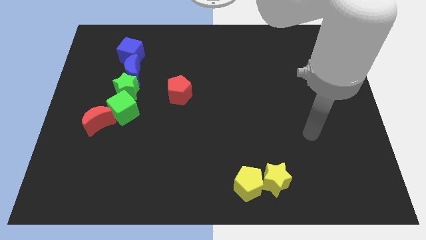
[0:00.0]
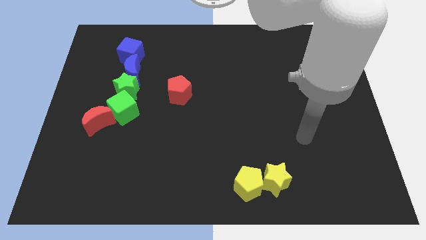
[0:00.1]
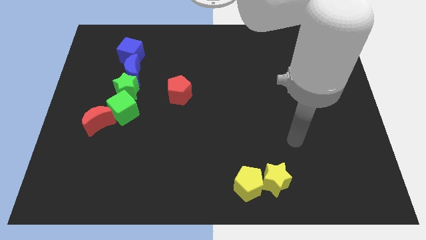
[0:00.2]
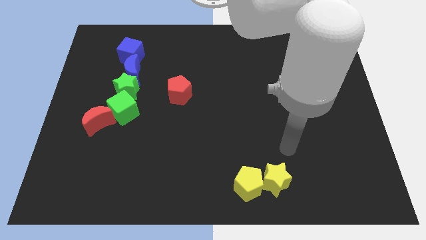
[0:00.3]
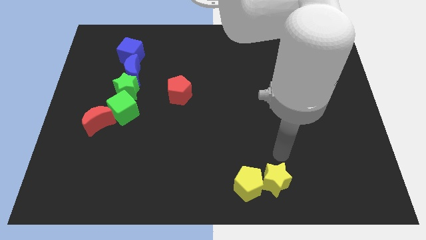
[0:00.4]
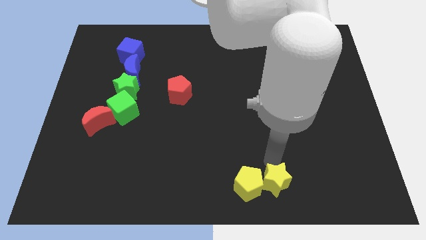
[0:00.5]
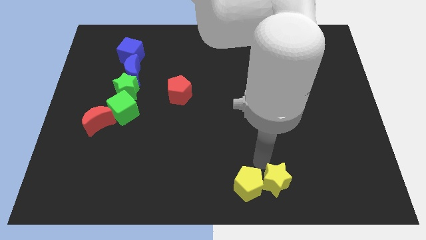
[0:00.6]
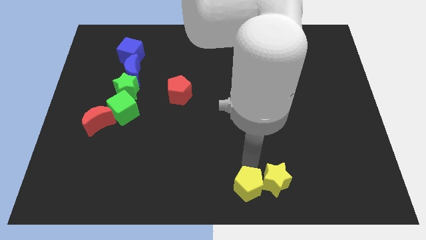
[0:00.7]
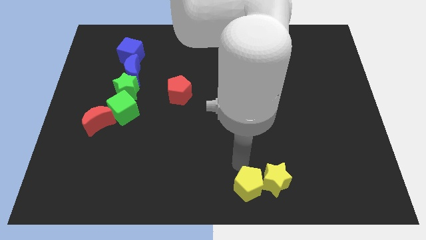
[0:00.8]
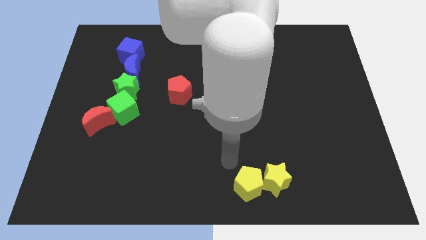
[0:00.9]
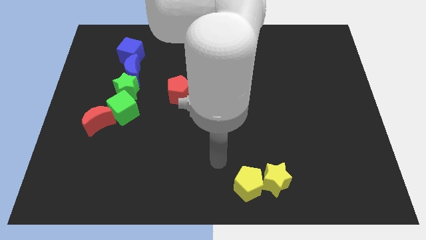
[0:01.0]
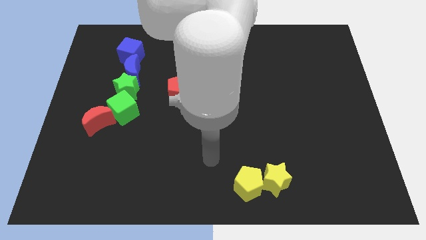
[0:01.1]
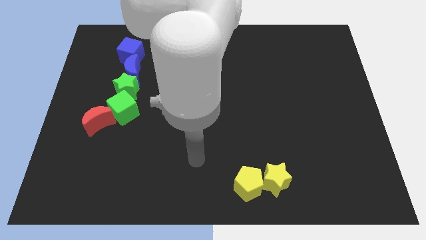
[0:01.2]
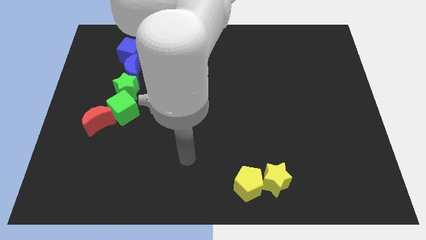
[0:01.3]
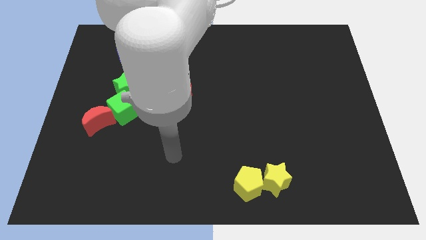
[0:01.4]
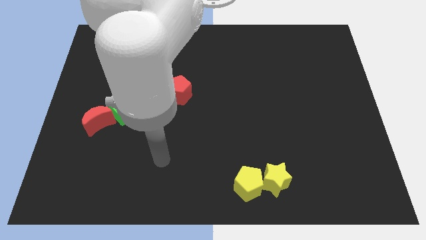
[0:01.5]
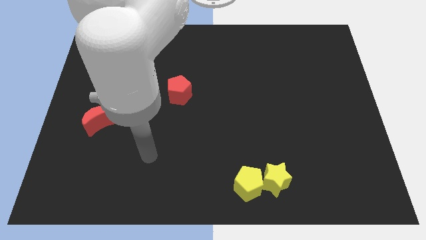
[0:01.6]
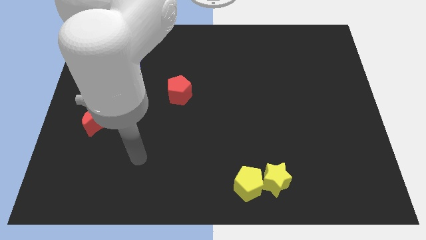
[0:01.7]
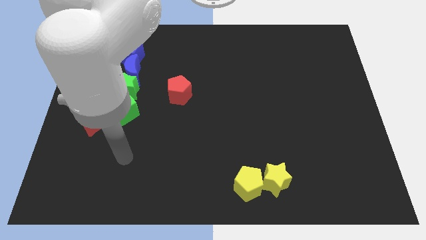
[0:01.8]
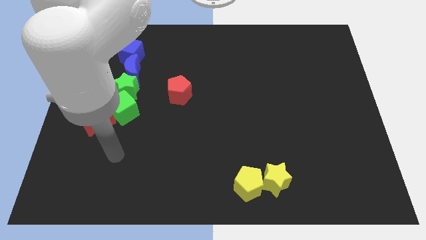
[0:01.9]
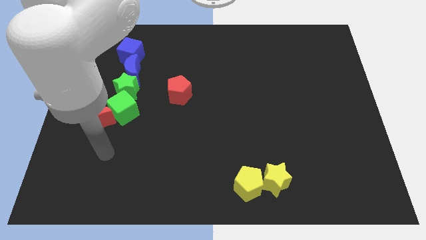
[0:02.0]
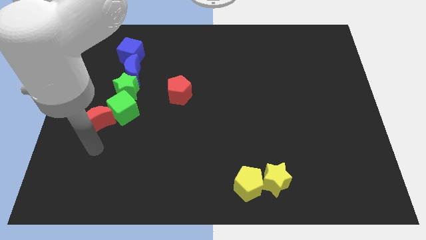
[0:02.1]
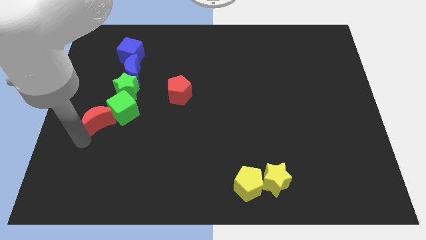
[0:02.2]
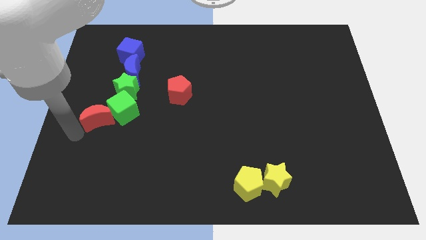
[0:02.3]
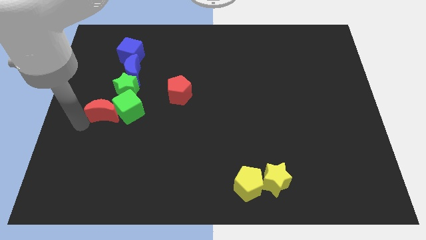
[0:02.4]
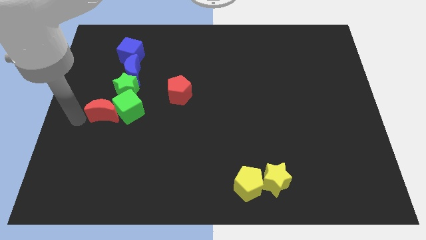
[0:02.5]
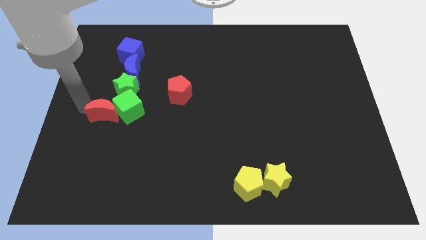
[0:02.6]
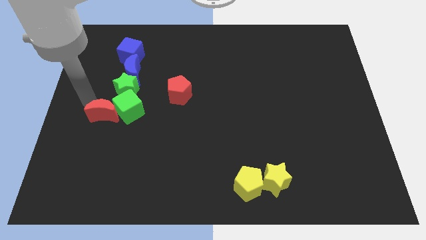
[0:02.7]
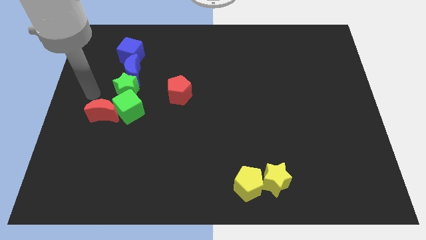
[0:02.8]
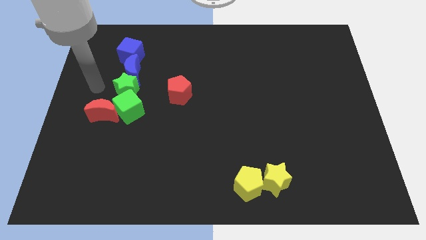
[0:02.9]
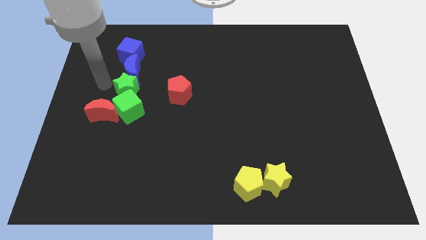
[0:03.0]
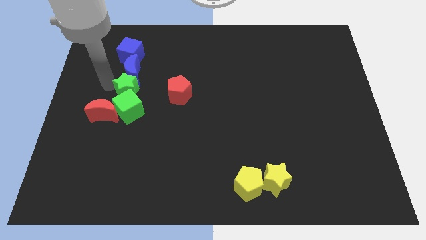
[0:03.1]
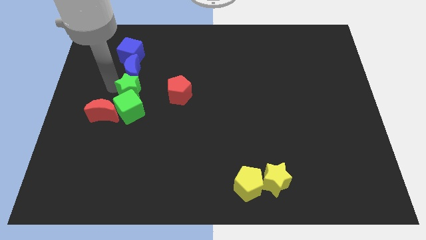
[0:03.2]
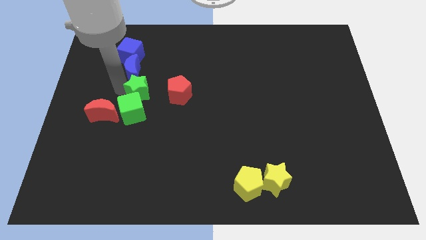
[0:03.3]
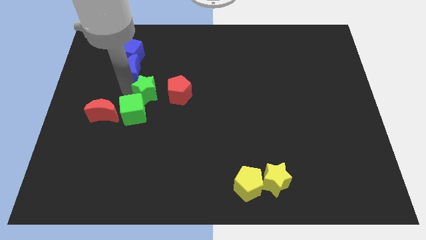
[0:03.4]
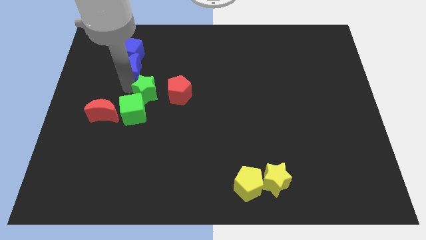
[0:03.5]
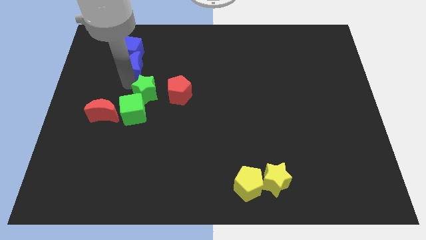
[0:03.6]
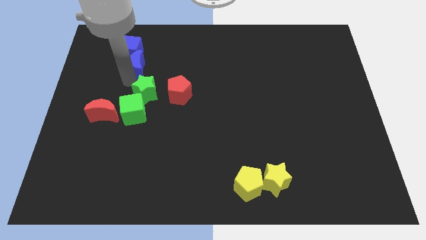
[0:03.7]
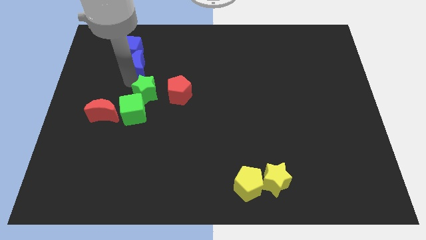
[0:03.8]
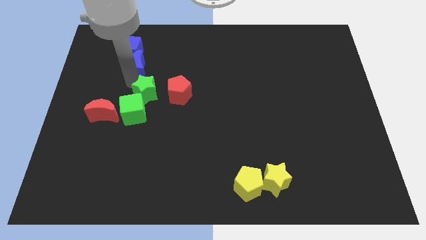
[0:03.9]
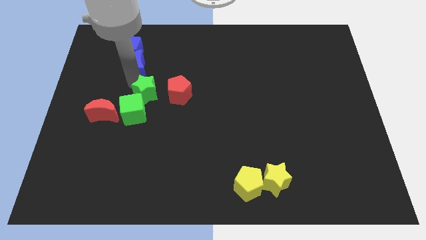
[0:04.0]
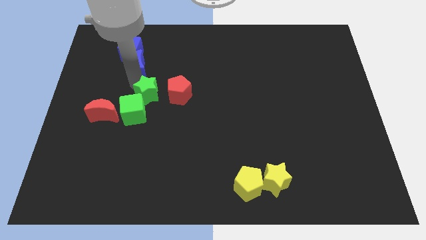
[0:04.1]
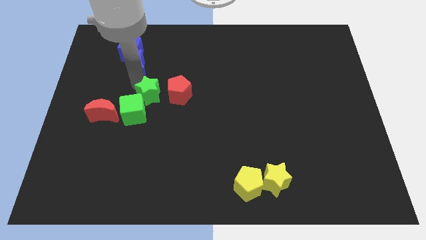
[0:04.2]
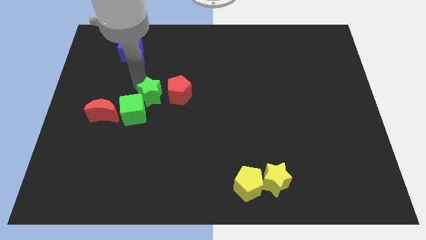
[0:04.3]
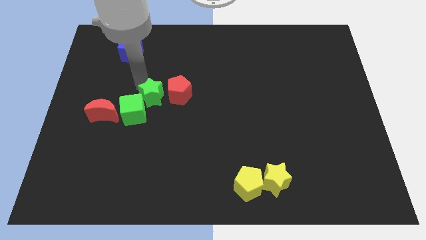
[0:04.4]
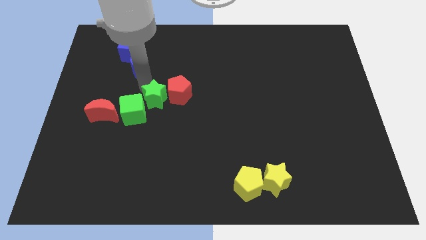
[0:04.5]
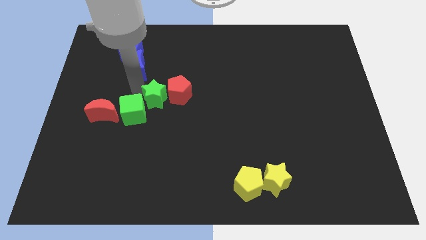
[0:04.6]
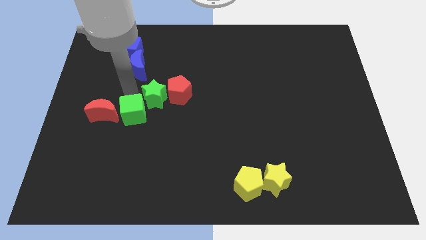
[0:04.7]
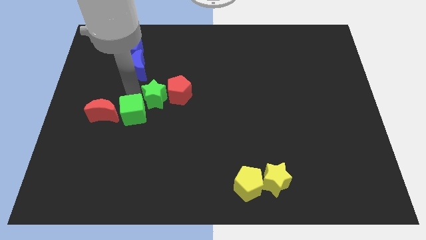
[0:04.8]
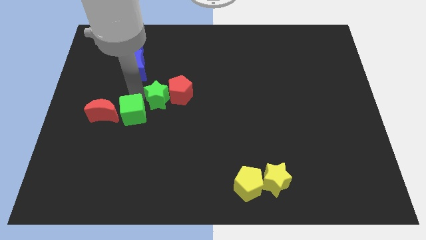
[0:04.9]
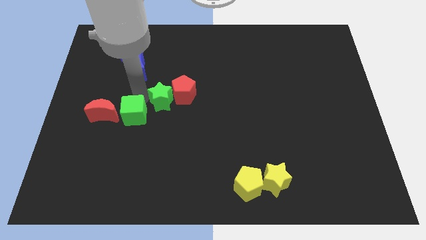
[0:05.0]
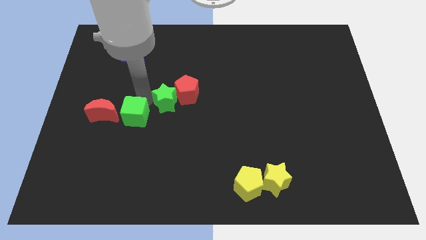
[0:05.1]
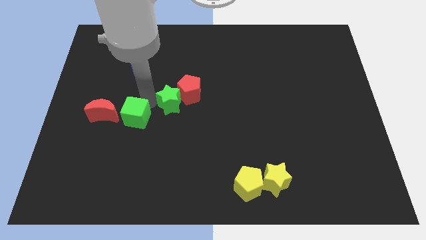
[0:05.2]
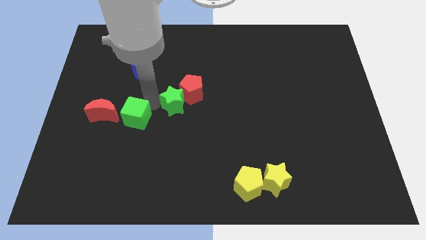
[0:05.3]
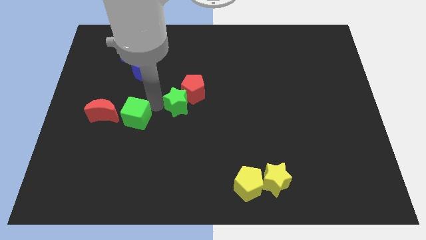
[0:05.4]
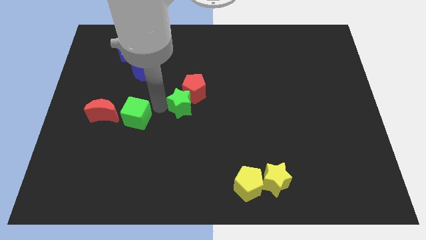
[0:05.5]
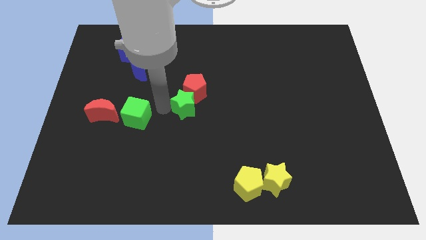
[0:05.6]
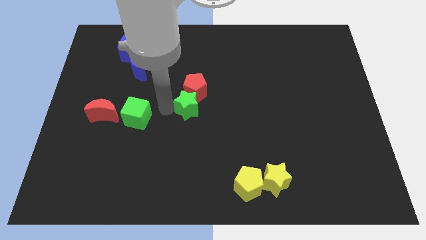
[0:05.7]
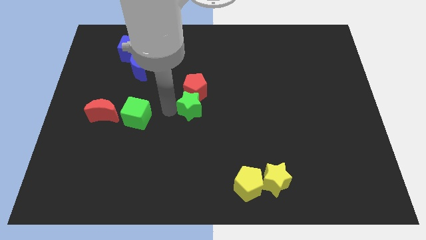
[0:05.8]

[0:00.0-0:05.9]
move the green star diagonally down and to the right of the red pentagon

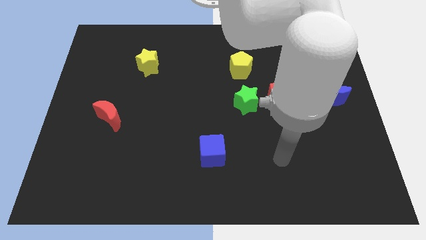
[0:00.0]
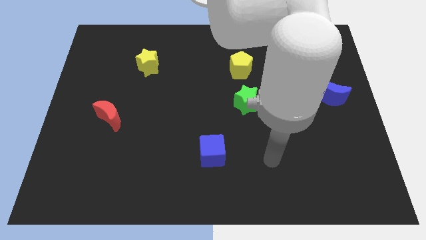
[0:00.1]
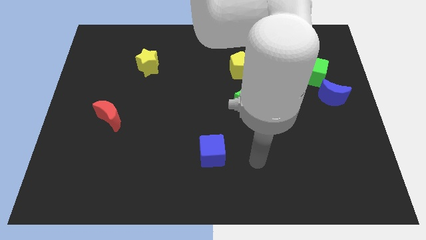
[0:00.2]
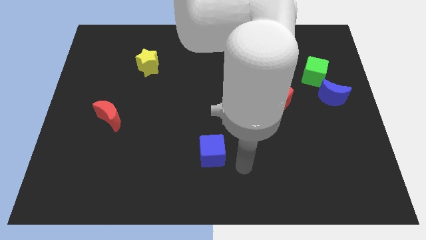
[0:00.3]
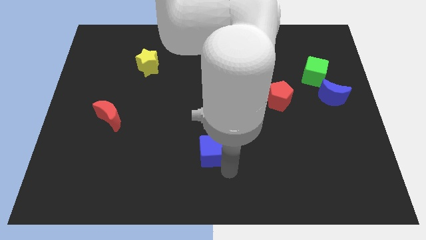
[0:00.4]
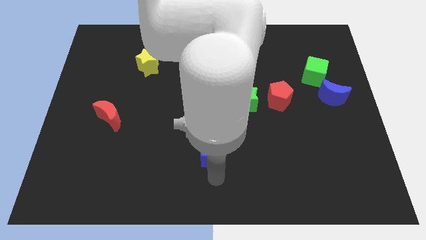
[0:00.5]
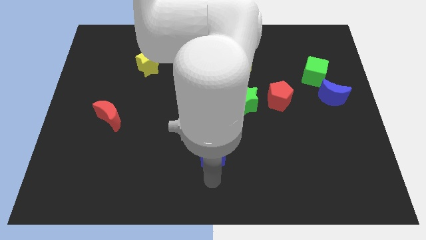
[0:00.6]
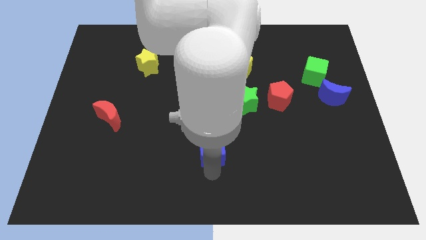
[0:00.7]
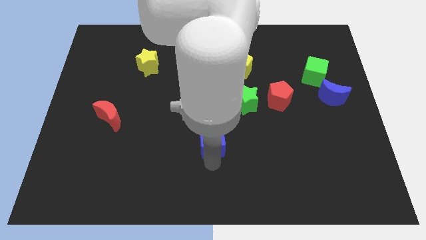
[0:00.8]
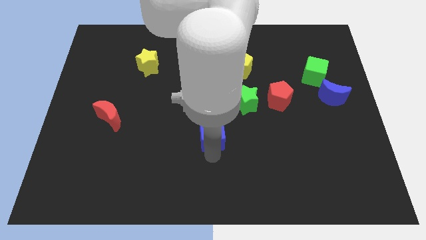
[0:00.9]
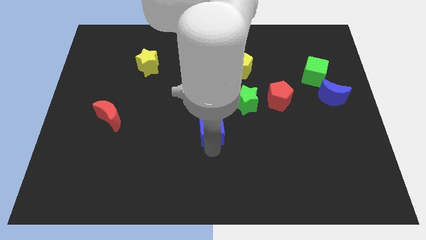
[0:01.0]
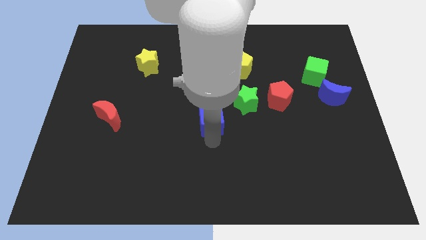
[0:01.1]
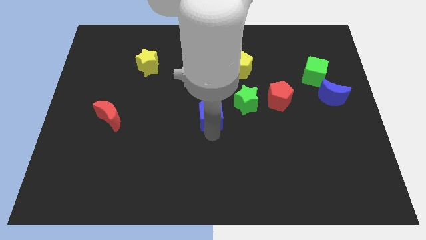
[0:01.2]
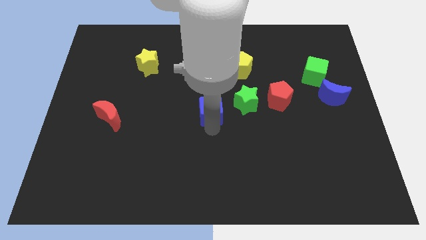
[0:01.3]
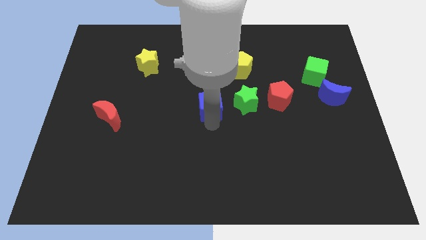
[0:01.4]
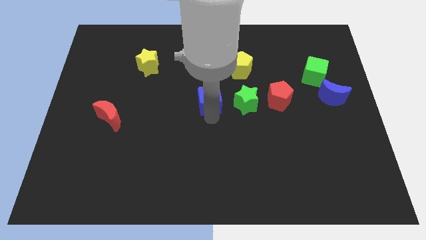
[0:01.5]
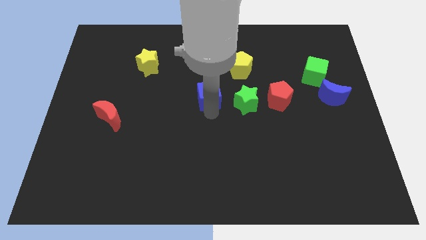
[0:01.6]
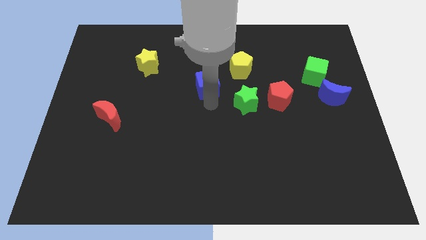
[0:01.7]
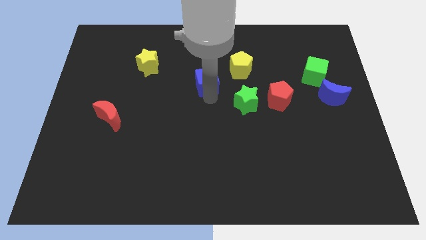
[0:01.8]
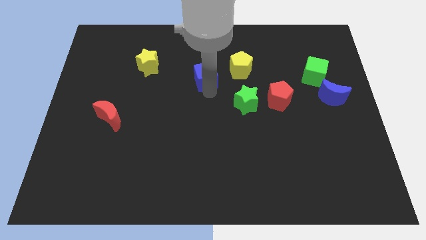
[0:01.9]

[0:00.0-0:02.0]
put the blue cube to the left of the yellow pentagon
